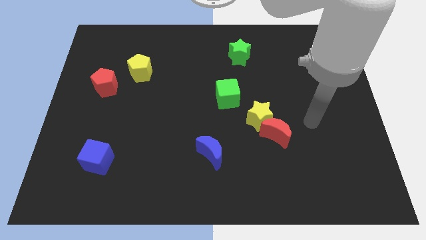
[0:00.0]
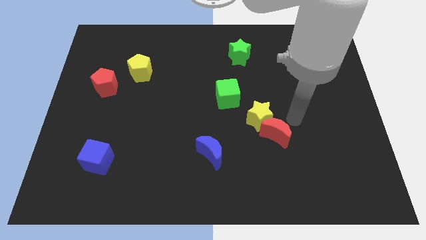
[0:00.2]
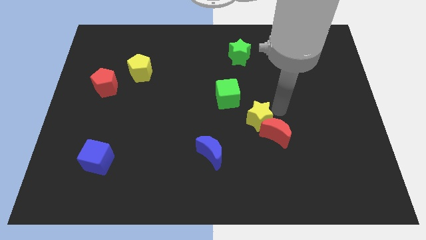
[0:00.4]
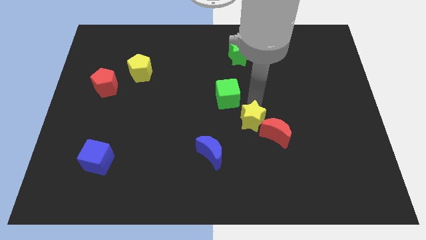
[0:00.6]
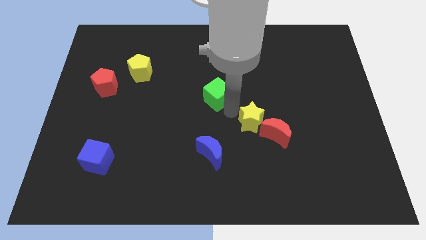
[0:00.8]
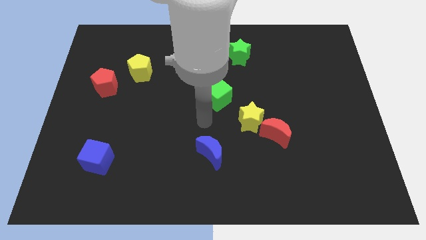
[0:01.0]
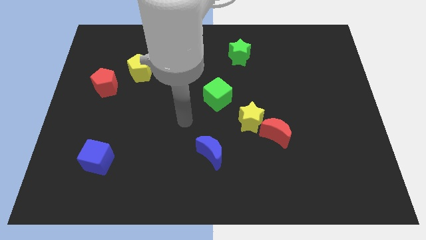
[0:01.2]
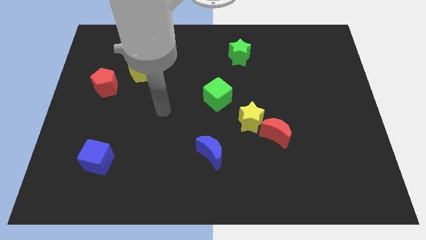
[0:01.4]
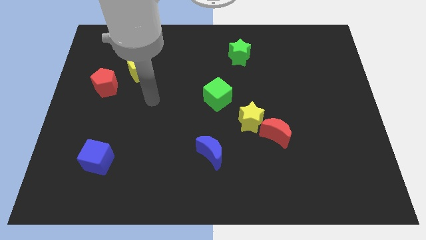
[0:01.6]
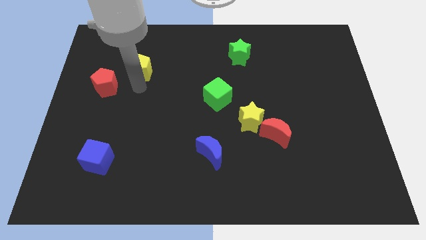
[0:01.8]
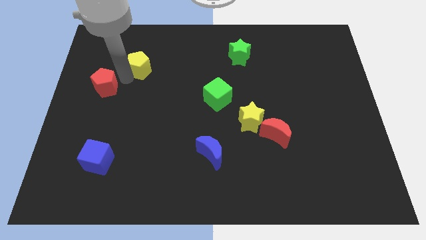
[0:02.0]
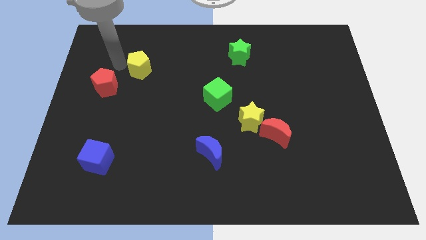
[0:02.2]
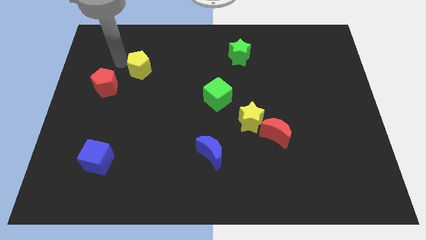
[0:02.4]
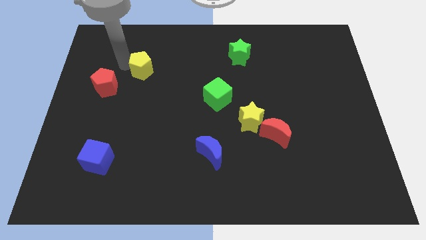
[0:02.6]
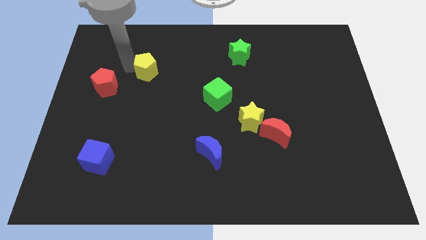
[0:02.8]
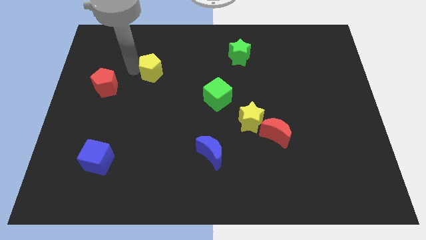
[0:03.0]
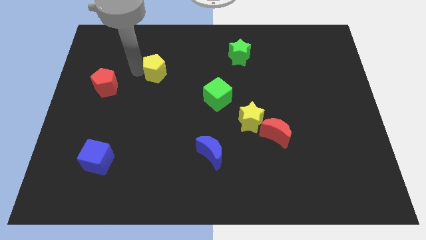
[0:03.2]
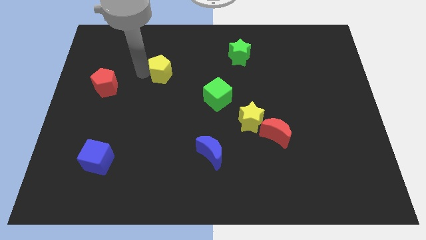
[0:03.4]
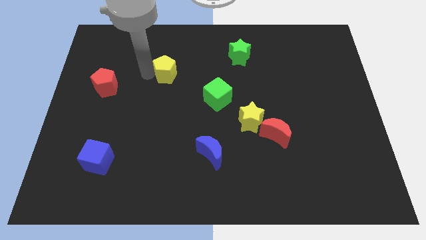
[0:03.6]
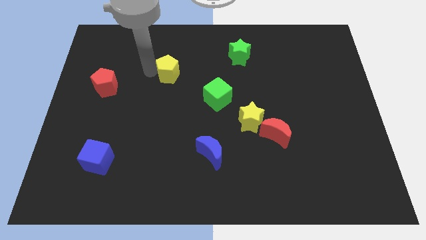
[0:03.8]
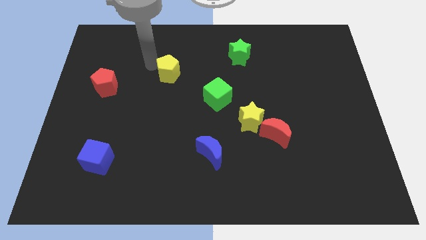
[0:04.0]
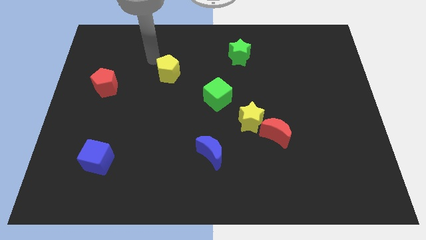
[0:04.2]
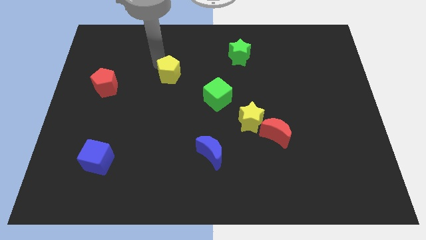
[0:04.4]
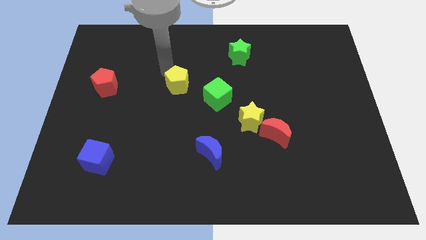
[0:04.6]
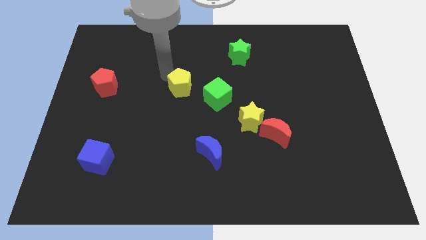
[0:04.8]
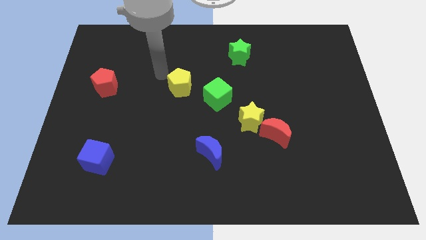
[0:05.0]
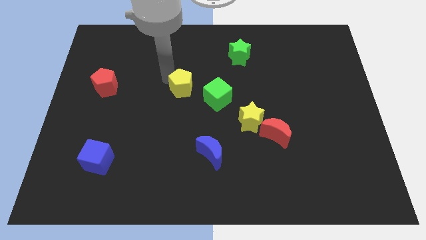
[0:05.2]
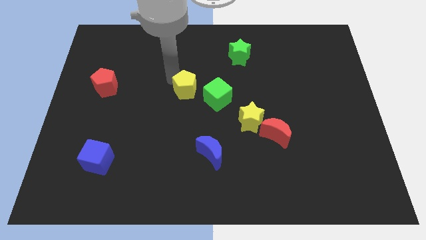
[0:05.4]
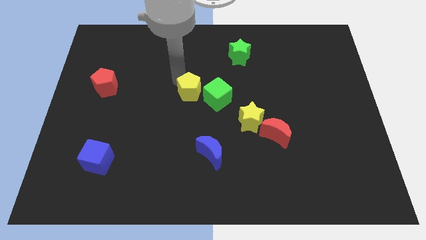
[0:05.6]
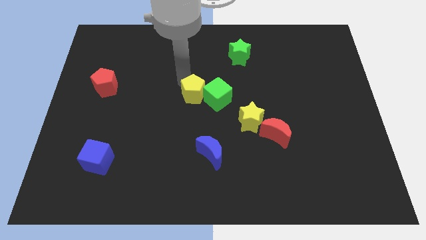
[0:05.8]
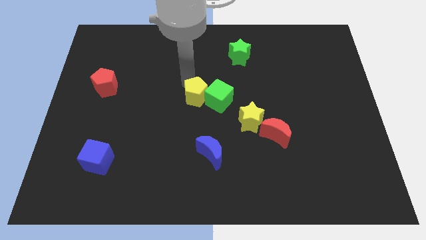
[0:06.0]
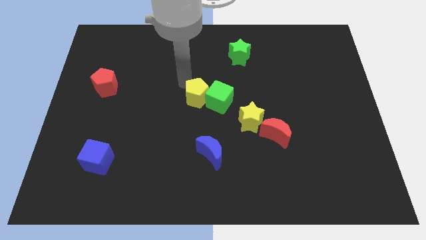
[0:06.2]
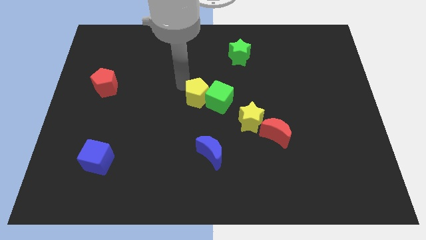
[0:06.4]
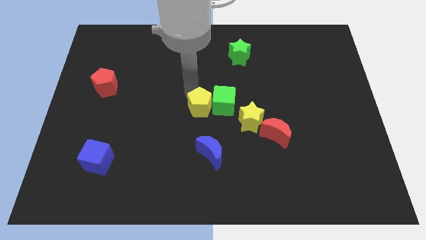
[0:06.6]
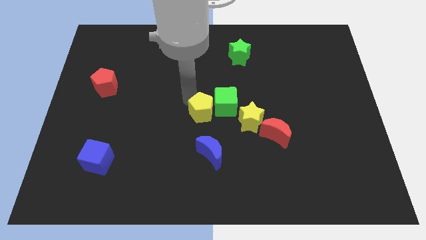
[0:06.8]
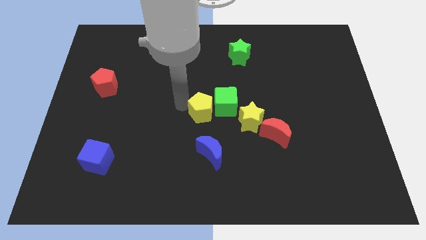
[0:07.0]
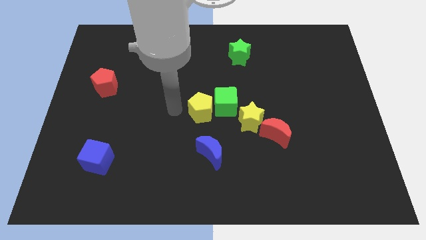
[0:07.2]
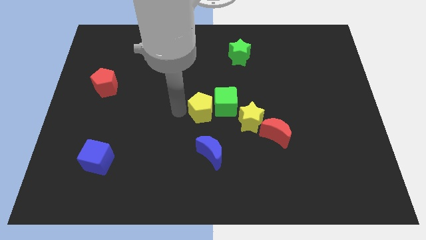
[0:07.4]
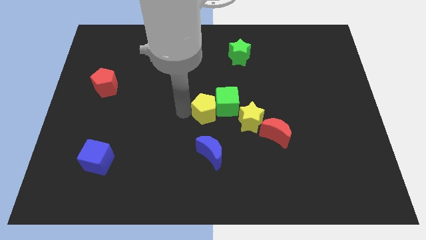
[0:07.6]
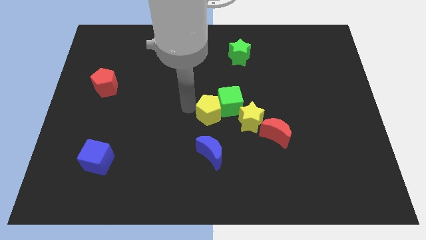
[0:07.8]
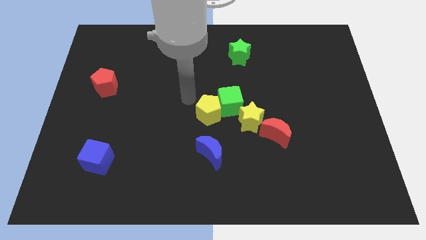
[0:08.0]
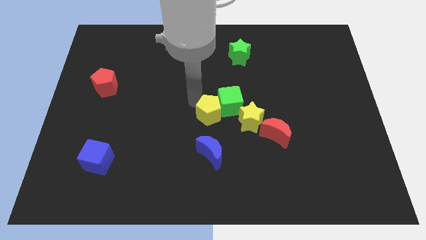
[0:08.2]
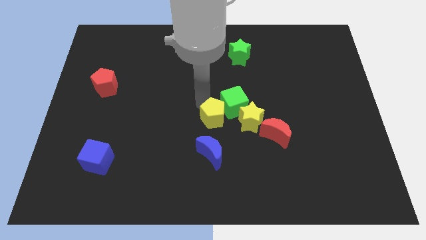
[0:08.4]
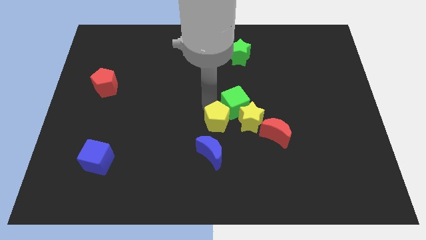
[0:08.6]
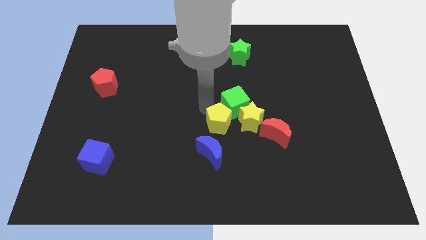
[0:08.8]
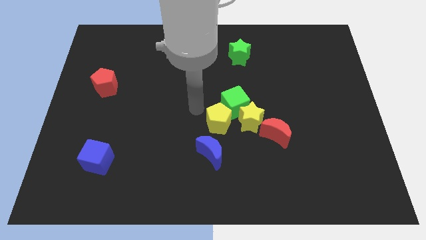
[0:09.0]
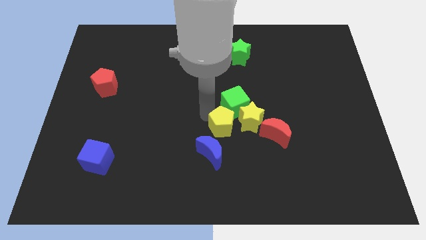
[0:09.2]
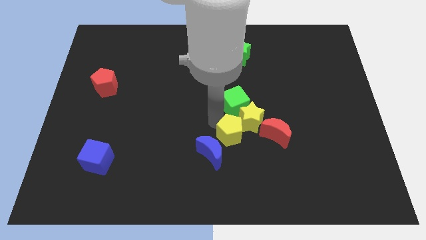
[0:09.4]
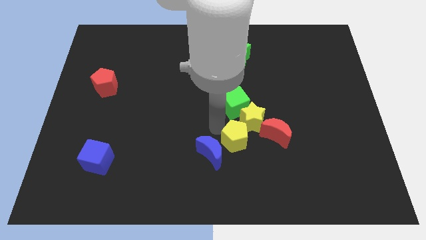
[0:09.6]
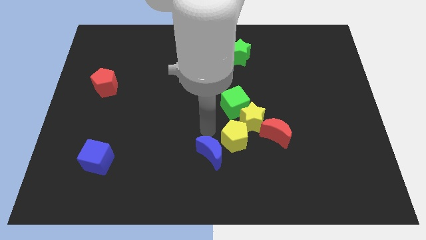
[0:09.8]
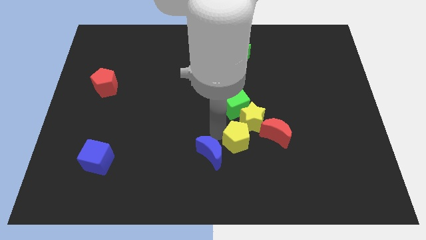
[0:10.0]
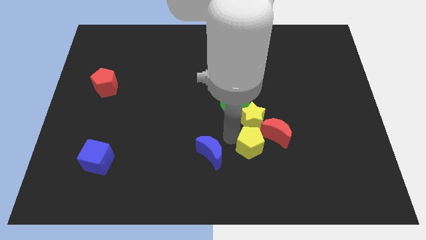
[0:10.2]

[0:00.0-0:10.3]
push the yellow pentagon to the bottom right side of the yellow star

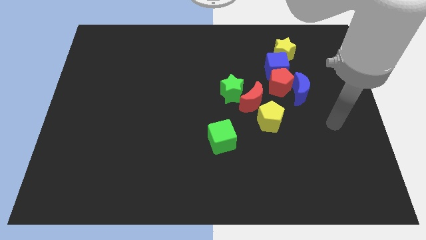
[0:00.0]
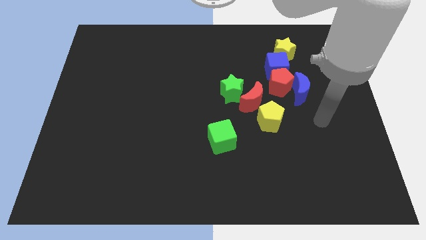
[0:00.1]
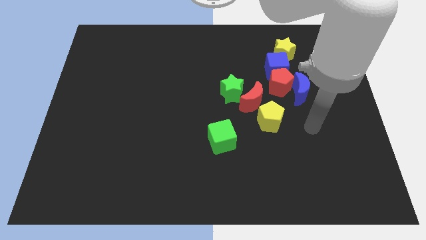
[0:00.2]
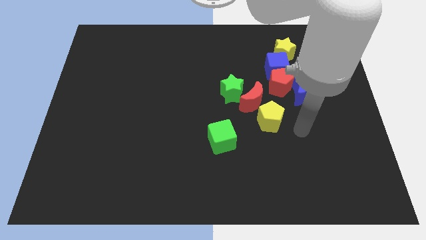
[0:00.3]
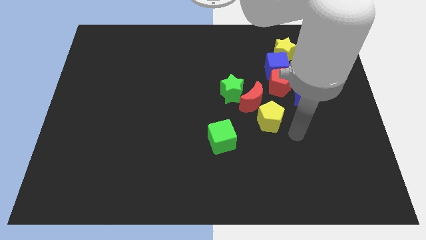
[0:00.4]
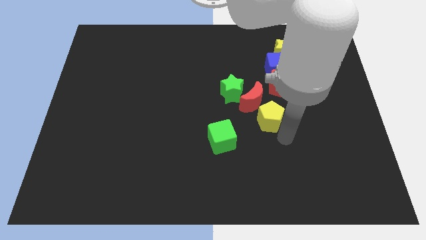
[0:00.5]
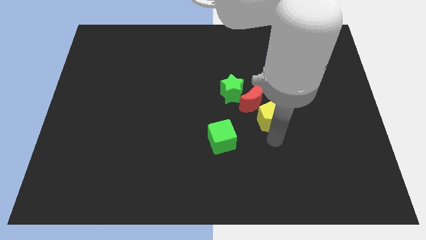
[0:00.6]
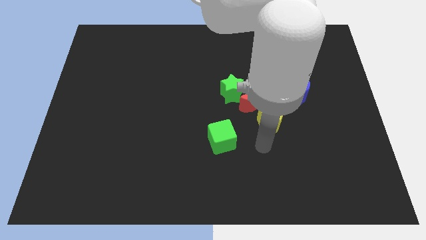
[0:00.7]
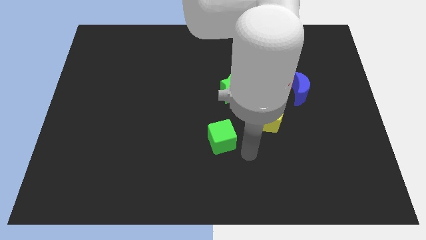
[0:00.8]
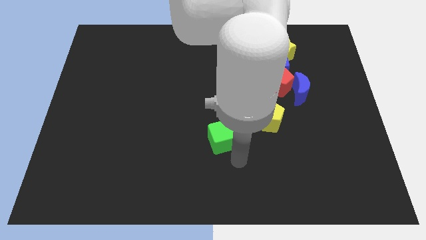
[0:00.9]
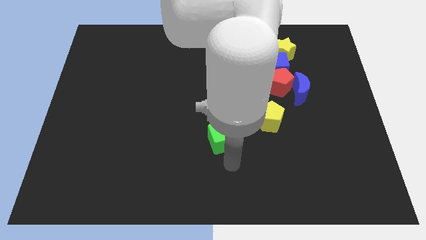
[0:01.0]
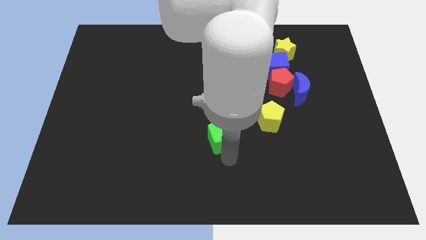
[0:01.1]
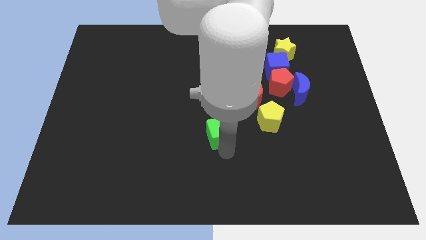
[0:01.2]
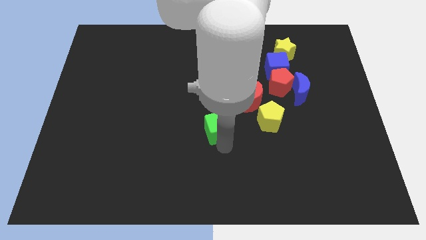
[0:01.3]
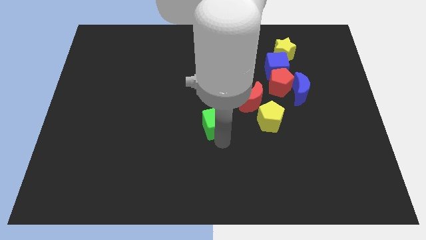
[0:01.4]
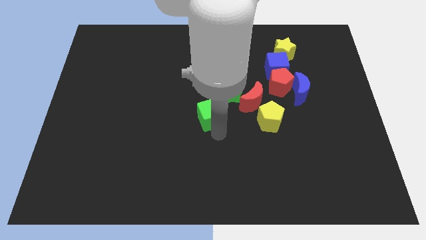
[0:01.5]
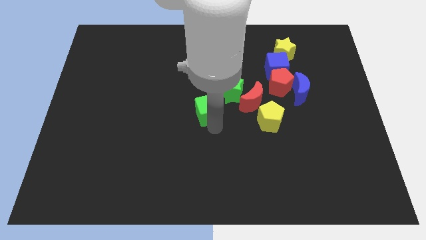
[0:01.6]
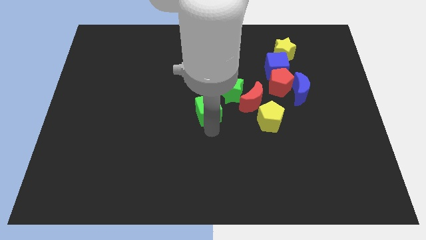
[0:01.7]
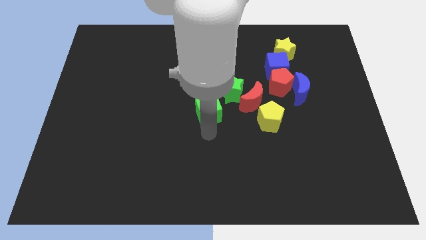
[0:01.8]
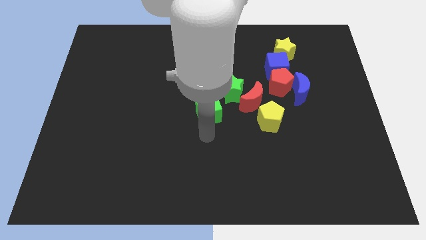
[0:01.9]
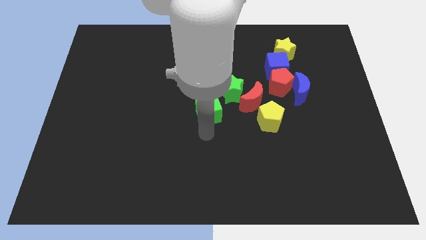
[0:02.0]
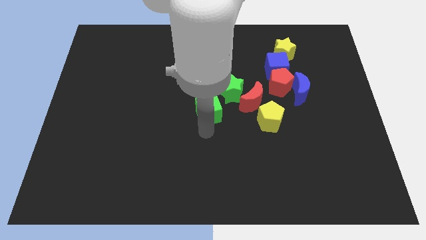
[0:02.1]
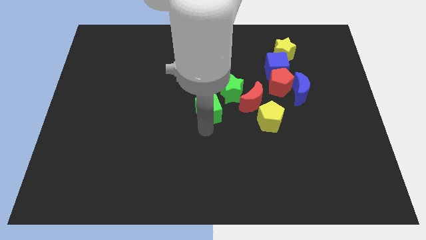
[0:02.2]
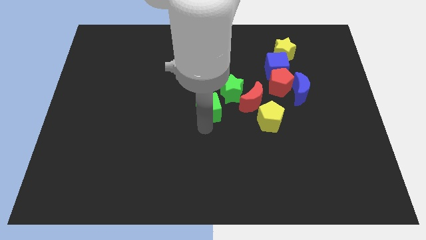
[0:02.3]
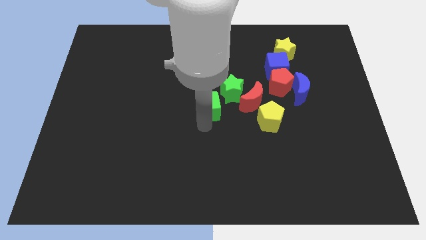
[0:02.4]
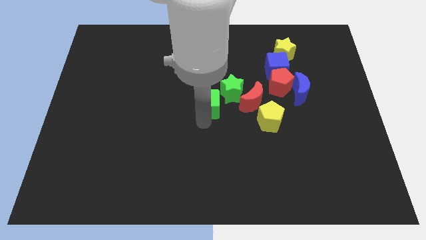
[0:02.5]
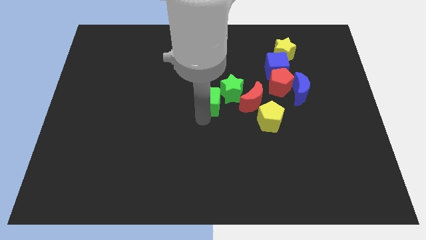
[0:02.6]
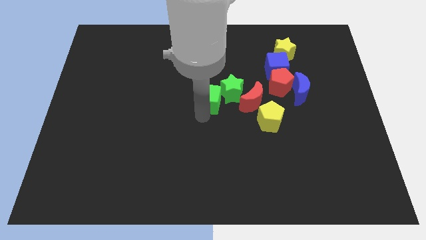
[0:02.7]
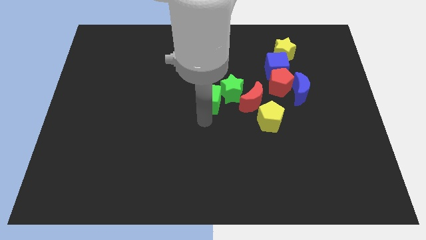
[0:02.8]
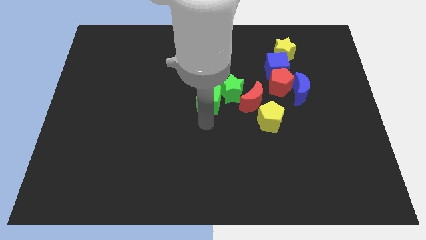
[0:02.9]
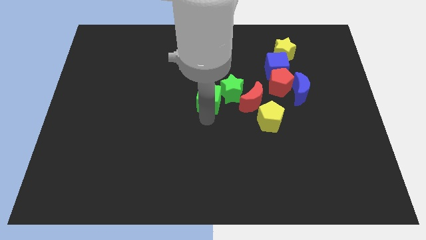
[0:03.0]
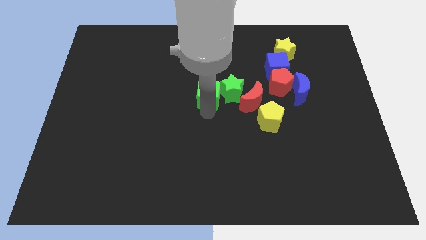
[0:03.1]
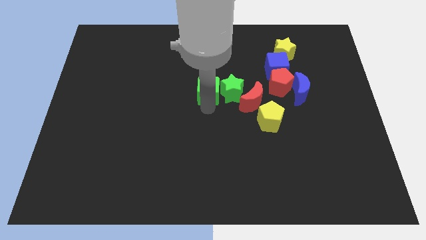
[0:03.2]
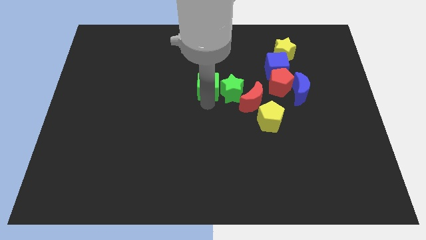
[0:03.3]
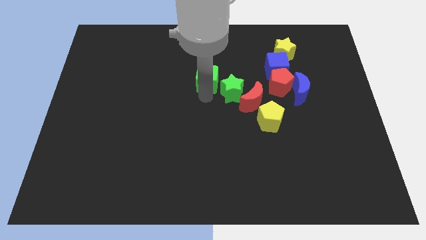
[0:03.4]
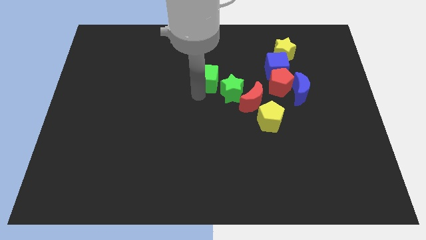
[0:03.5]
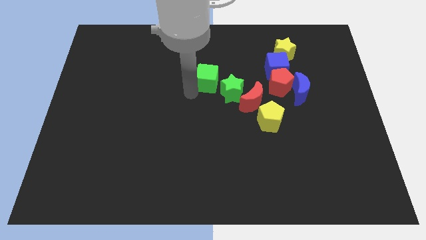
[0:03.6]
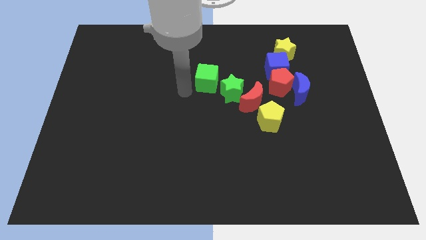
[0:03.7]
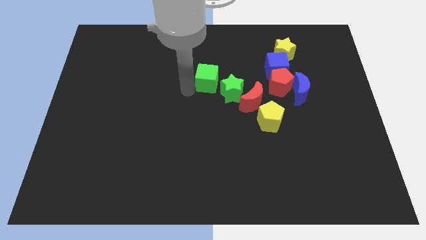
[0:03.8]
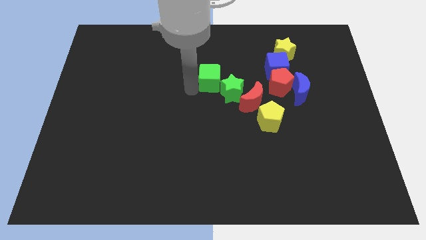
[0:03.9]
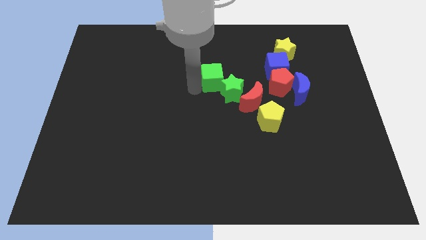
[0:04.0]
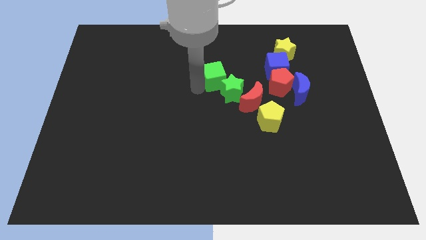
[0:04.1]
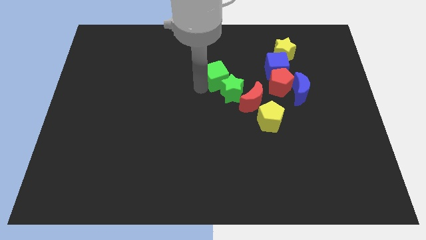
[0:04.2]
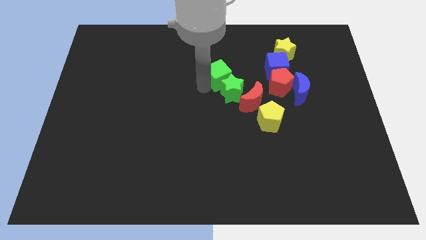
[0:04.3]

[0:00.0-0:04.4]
slide the green cube to the left side of the blue cube
